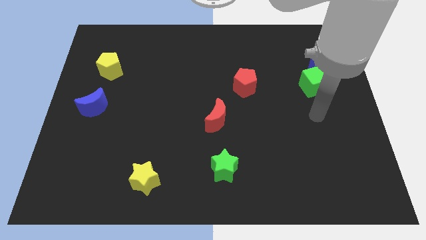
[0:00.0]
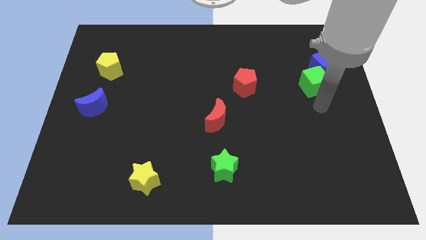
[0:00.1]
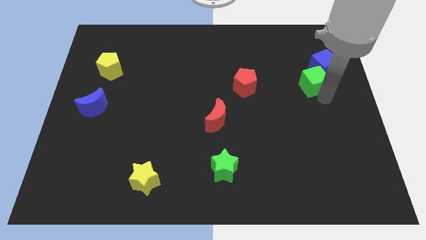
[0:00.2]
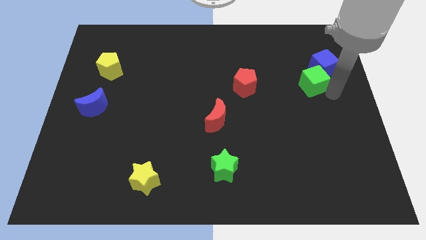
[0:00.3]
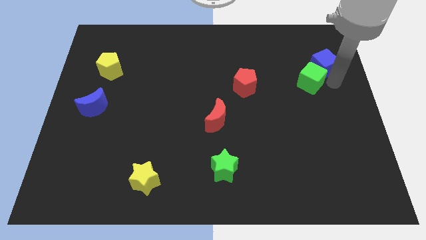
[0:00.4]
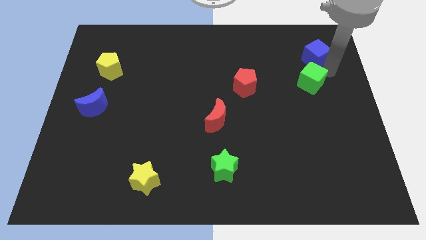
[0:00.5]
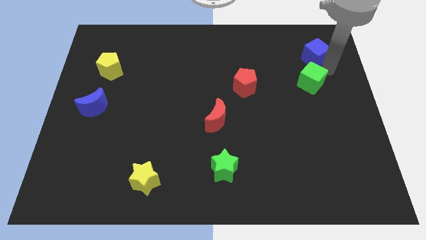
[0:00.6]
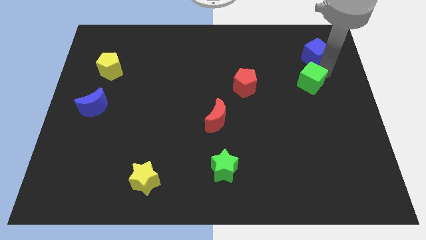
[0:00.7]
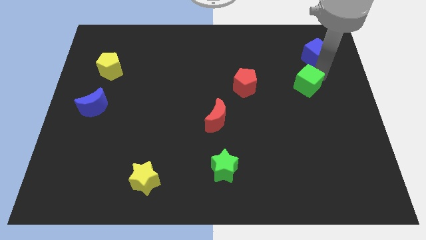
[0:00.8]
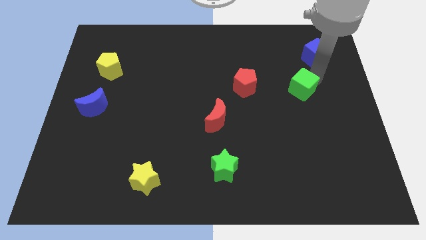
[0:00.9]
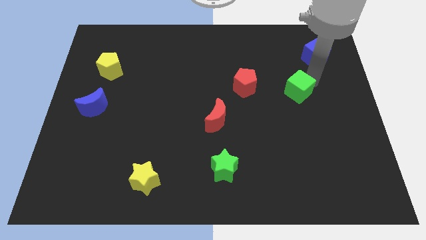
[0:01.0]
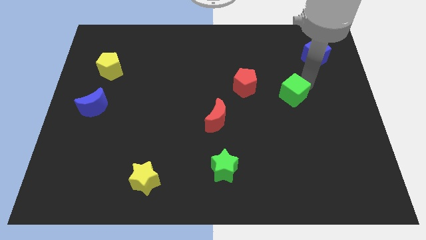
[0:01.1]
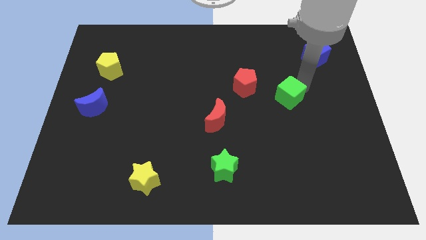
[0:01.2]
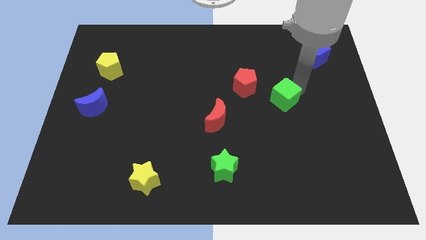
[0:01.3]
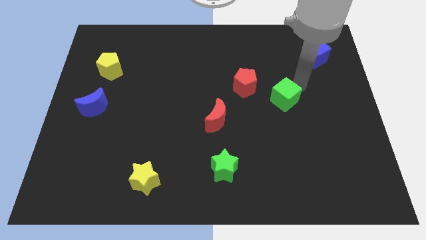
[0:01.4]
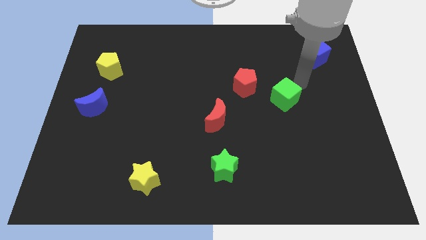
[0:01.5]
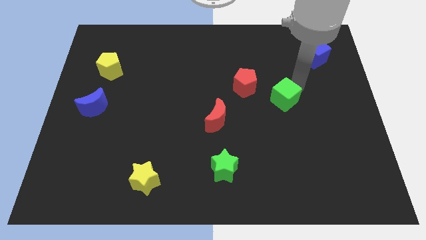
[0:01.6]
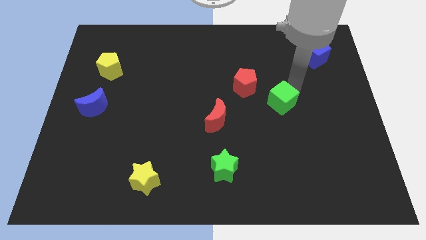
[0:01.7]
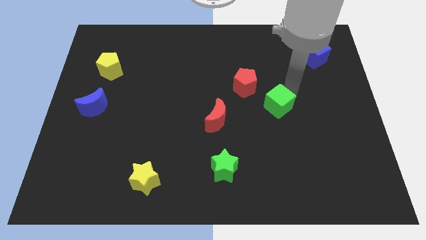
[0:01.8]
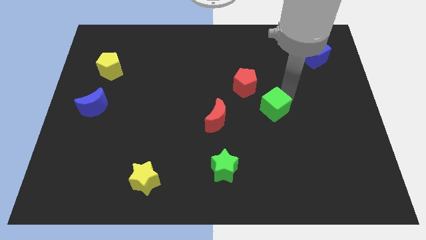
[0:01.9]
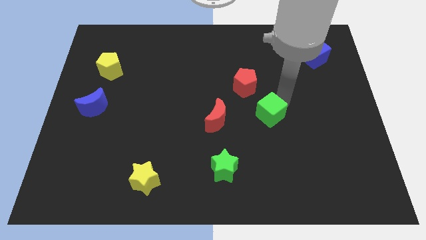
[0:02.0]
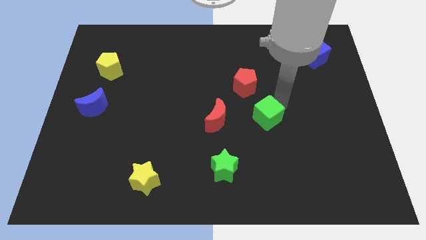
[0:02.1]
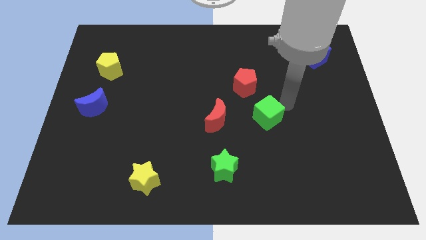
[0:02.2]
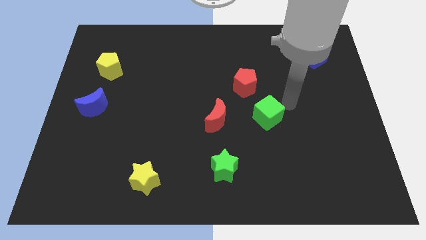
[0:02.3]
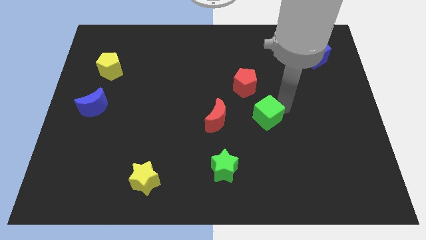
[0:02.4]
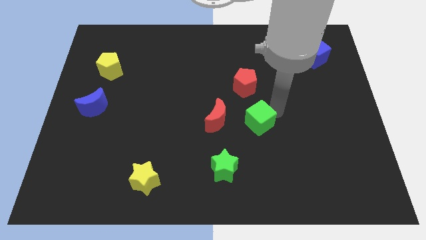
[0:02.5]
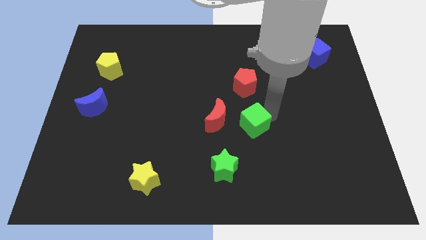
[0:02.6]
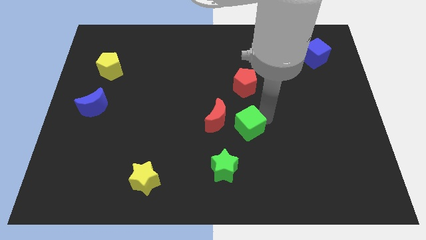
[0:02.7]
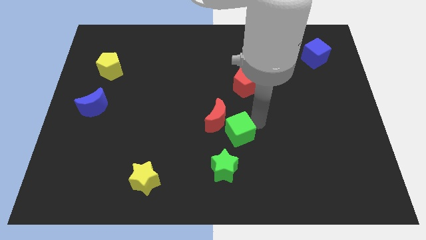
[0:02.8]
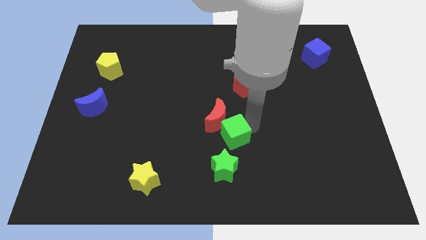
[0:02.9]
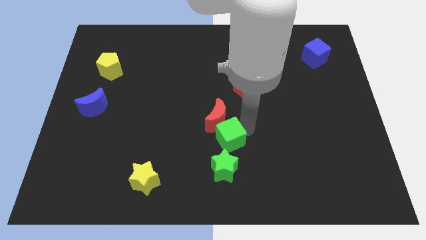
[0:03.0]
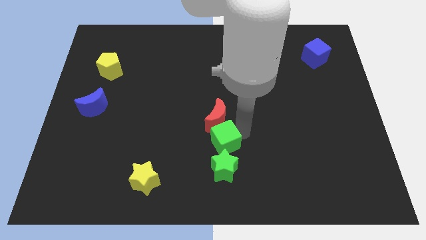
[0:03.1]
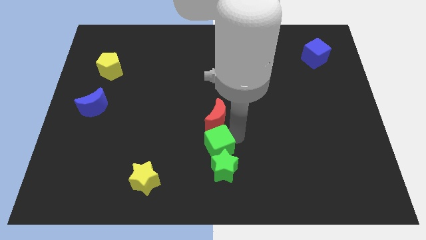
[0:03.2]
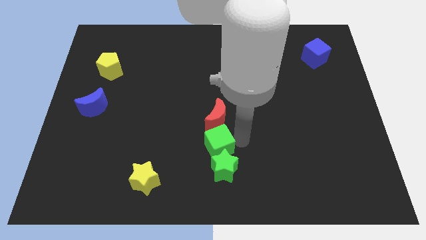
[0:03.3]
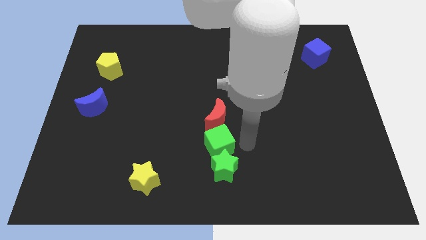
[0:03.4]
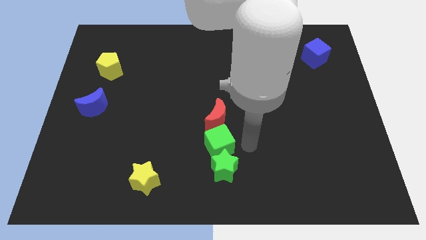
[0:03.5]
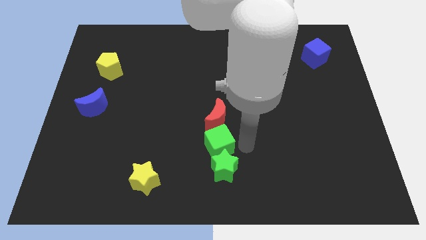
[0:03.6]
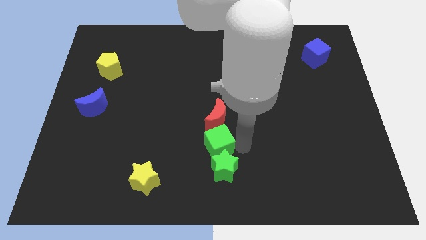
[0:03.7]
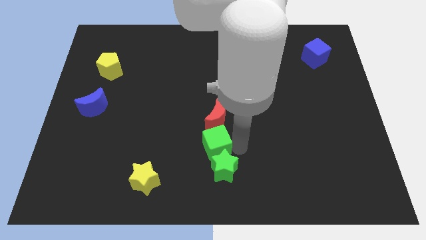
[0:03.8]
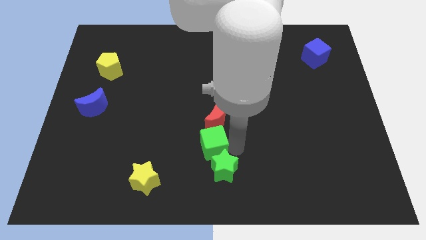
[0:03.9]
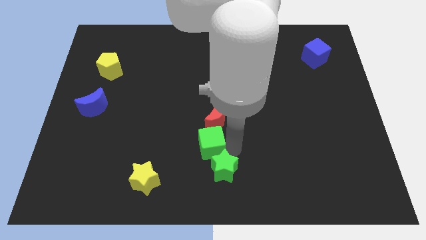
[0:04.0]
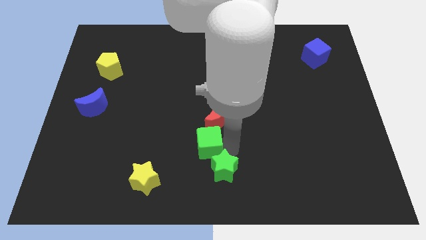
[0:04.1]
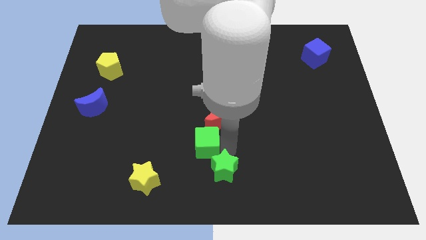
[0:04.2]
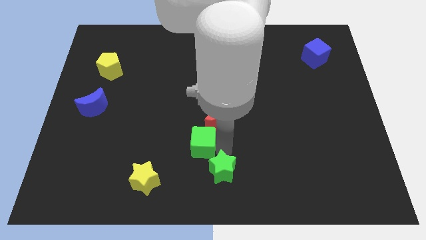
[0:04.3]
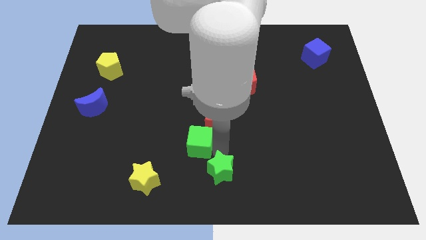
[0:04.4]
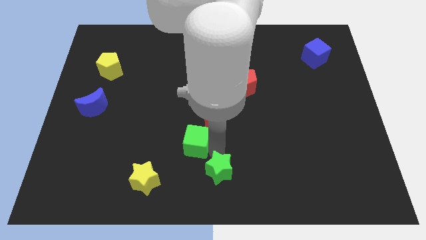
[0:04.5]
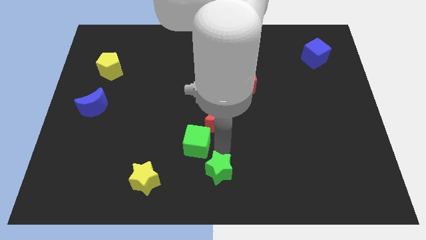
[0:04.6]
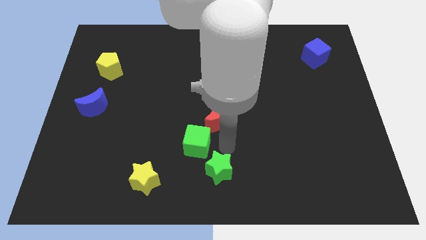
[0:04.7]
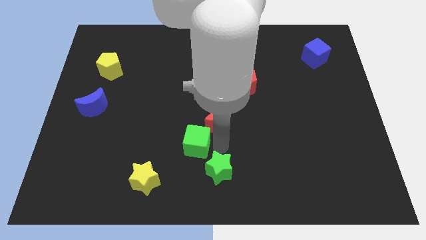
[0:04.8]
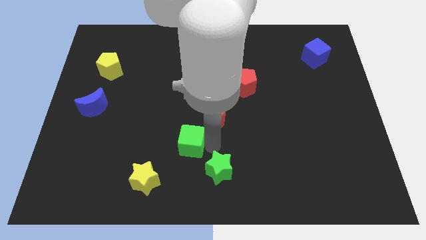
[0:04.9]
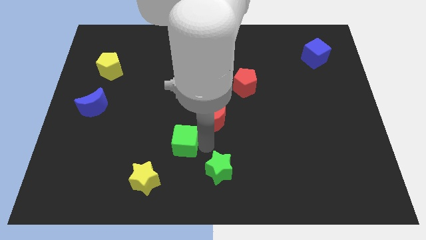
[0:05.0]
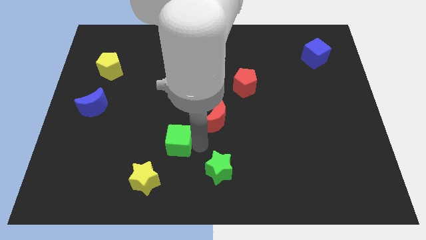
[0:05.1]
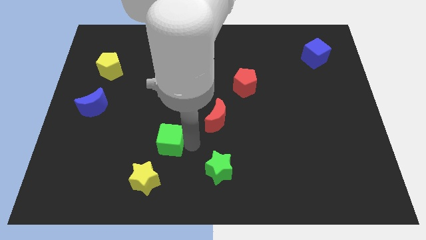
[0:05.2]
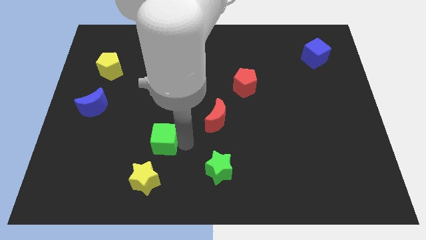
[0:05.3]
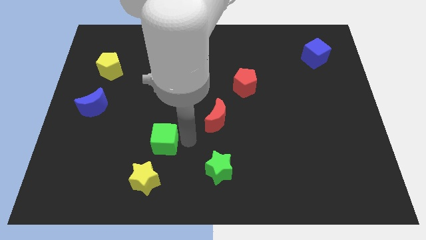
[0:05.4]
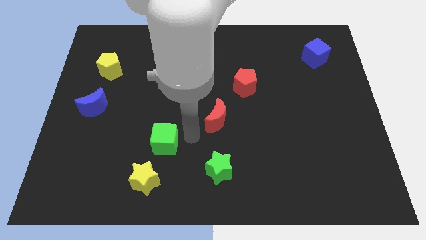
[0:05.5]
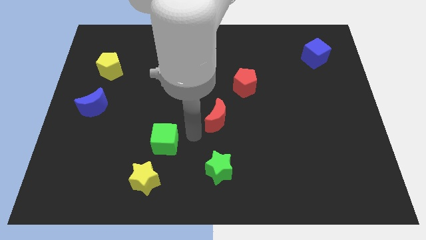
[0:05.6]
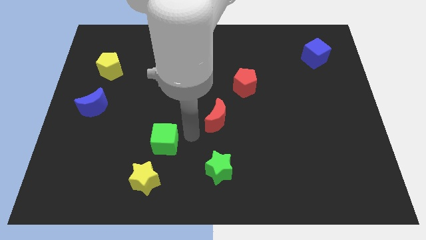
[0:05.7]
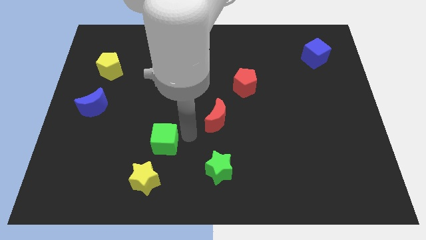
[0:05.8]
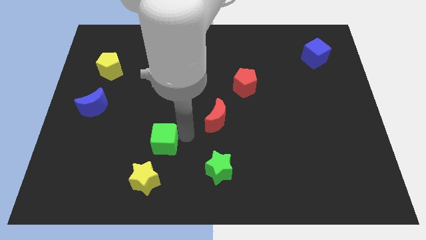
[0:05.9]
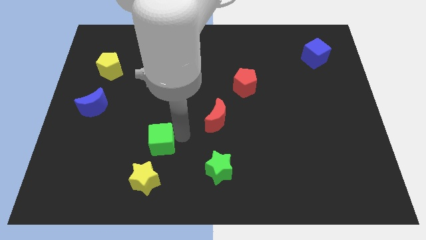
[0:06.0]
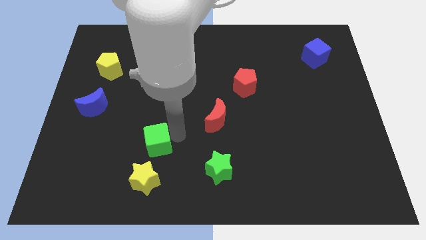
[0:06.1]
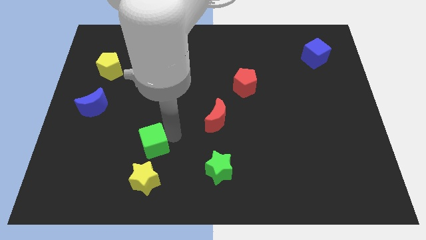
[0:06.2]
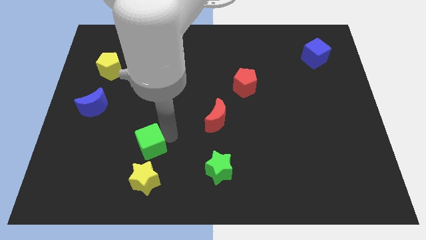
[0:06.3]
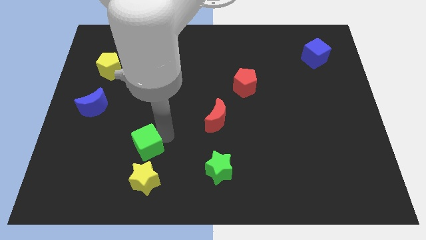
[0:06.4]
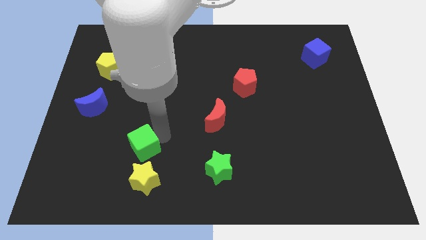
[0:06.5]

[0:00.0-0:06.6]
put the green cube to the top left side of the yellow star
